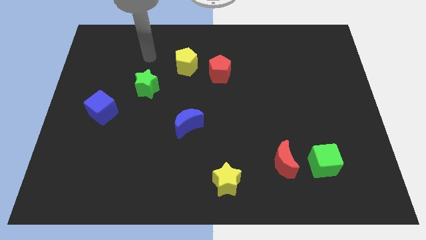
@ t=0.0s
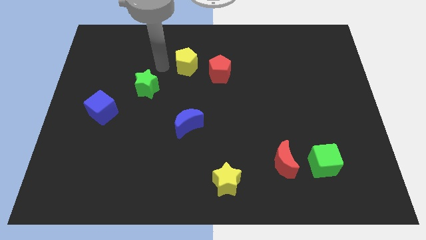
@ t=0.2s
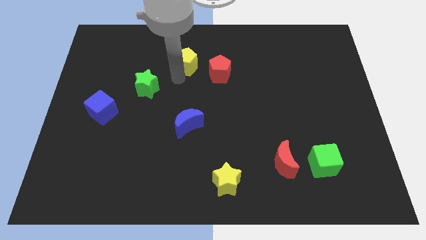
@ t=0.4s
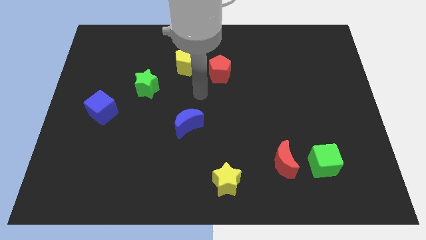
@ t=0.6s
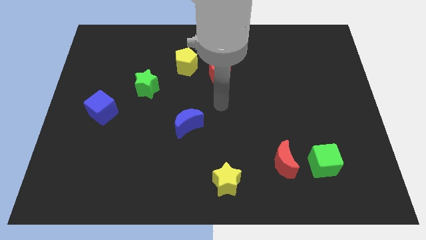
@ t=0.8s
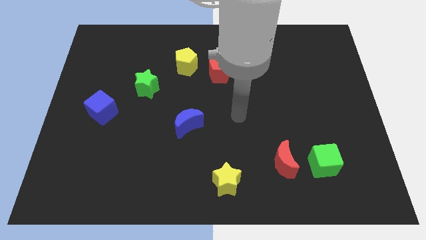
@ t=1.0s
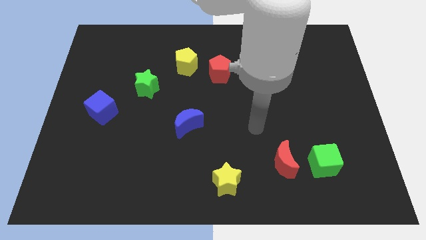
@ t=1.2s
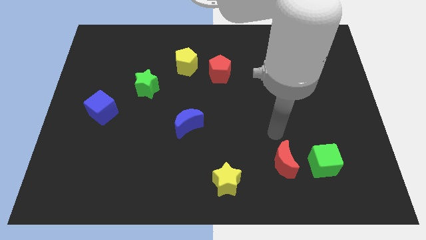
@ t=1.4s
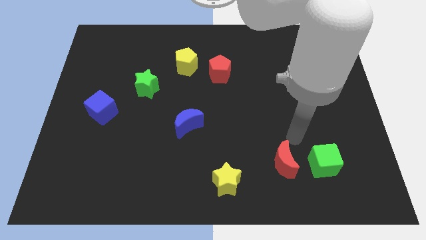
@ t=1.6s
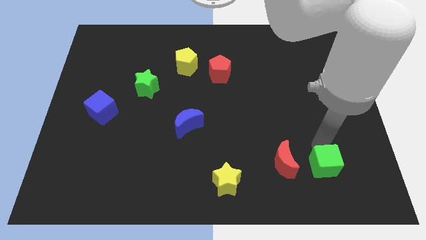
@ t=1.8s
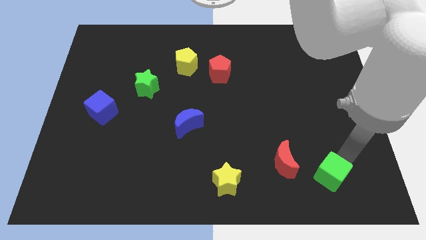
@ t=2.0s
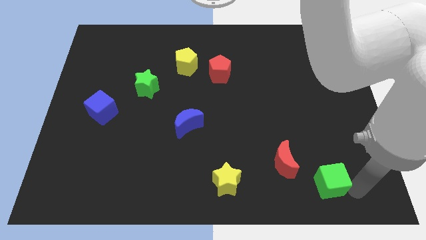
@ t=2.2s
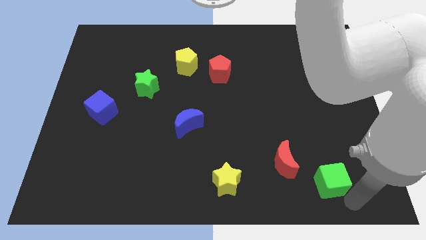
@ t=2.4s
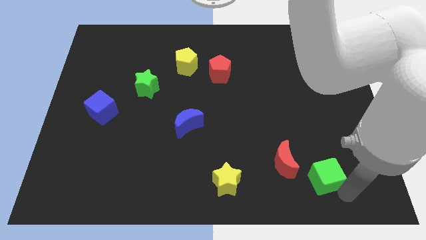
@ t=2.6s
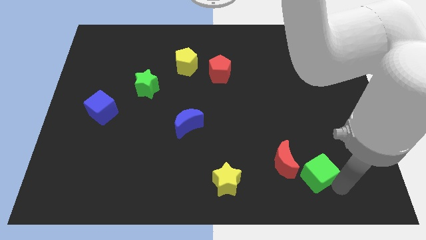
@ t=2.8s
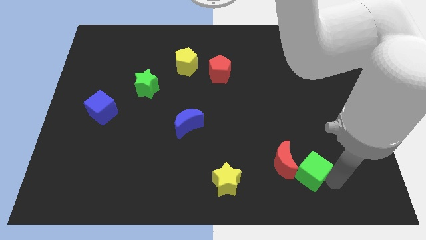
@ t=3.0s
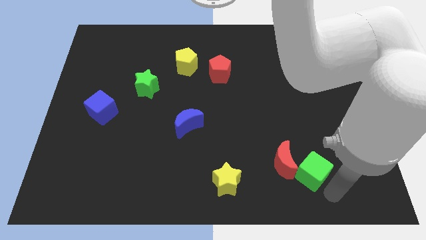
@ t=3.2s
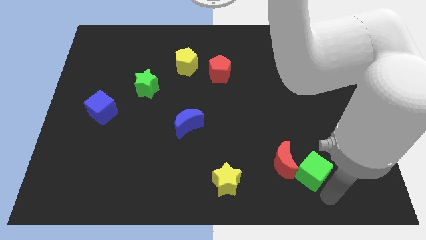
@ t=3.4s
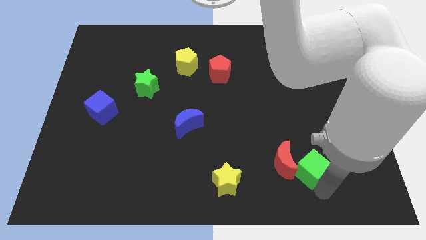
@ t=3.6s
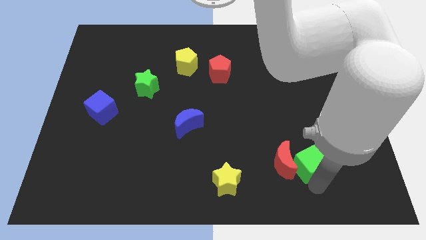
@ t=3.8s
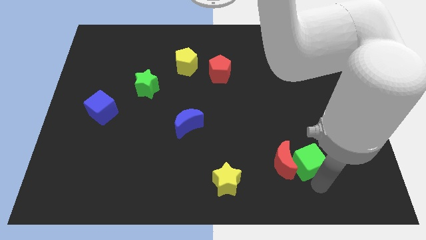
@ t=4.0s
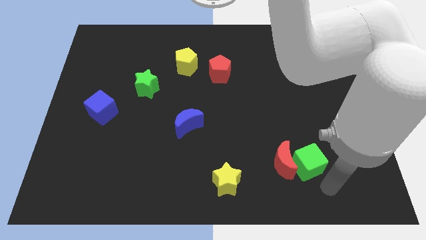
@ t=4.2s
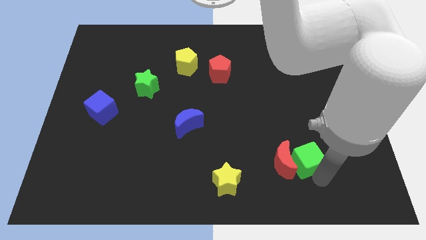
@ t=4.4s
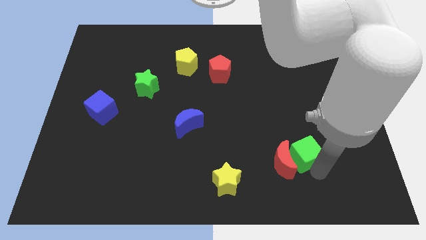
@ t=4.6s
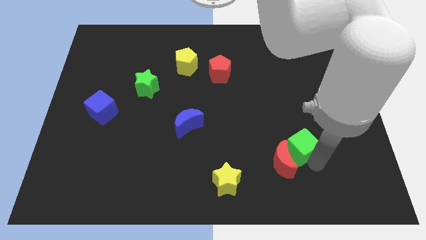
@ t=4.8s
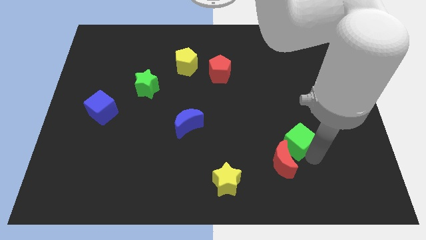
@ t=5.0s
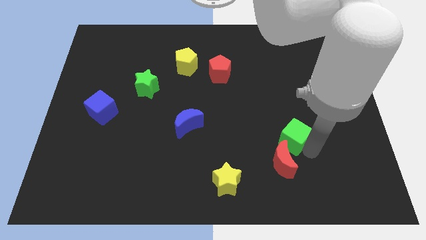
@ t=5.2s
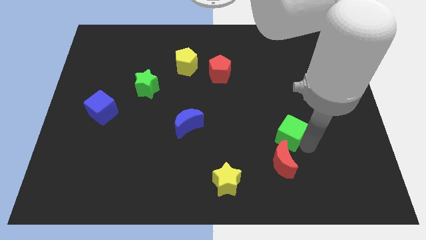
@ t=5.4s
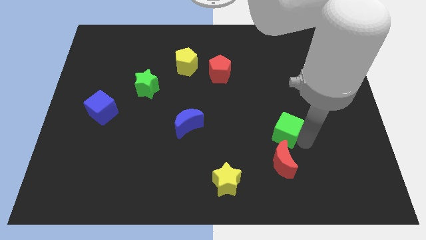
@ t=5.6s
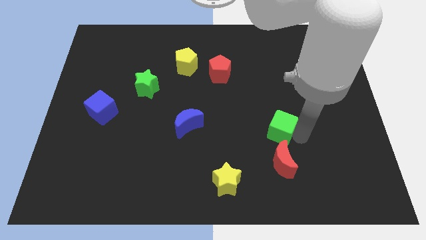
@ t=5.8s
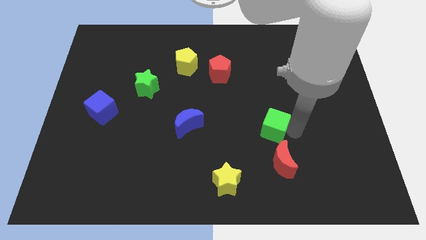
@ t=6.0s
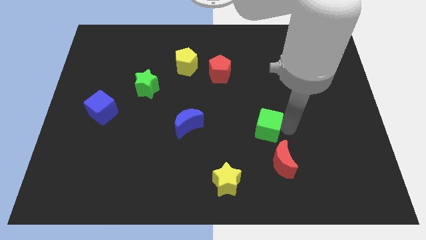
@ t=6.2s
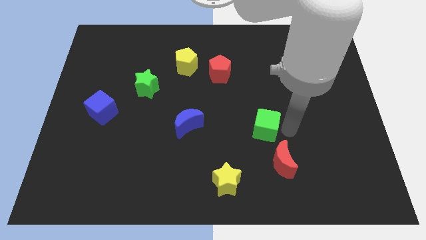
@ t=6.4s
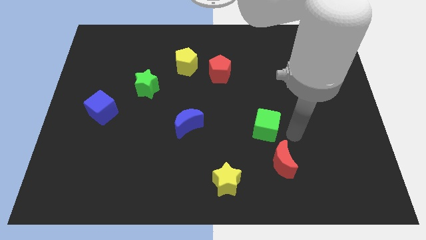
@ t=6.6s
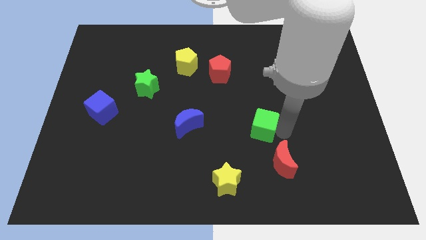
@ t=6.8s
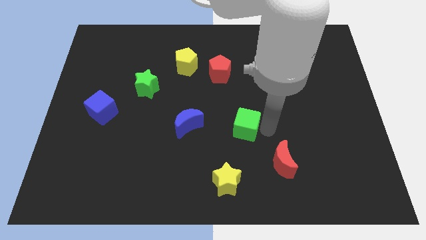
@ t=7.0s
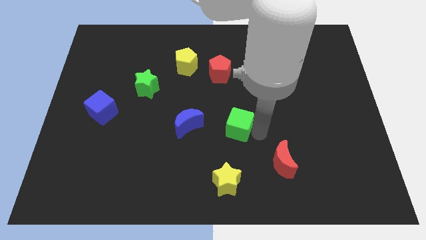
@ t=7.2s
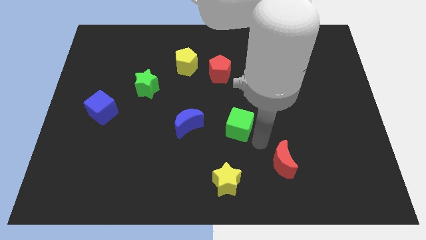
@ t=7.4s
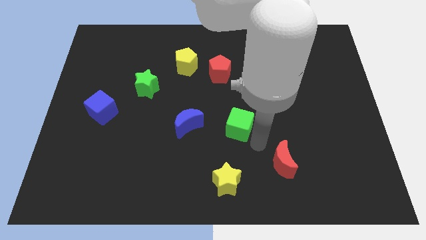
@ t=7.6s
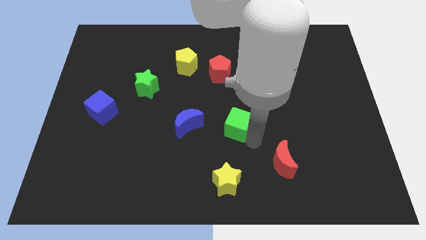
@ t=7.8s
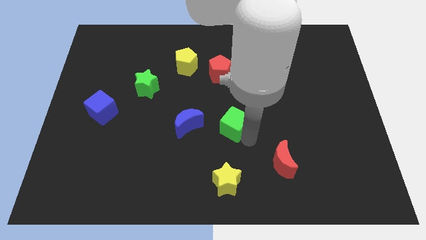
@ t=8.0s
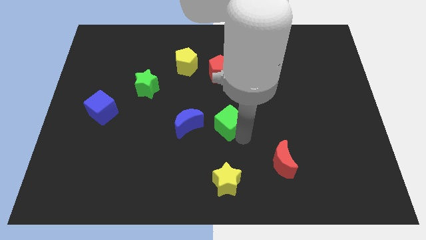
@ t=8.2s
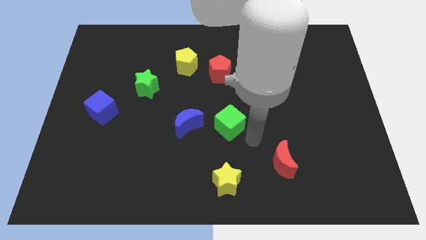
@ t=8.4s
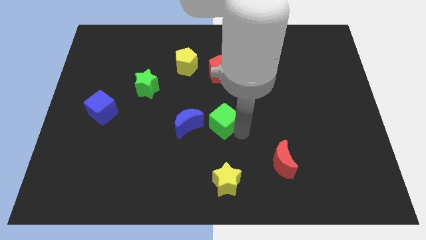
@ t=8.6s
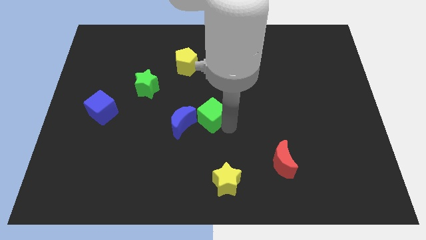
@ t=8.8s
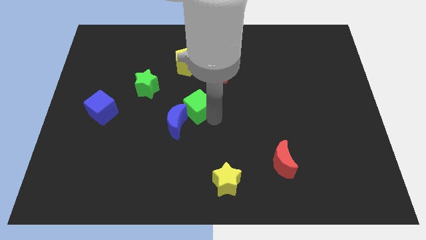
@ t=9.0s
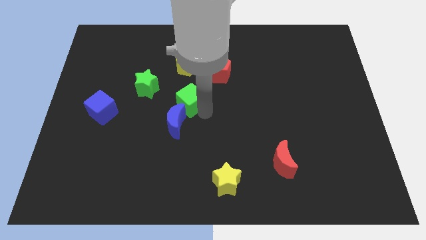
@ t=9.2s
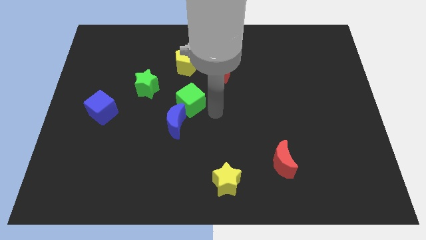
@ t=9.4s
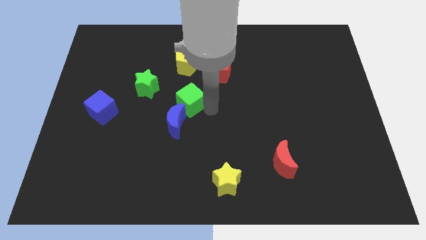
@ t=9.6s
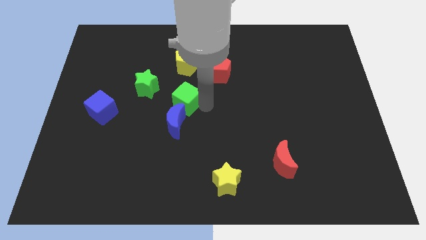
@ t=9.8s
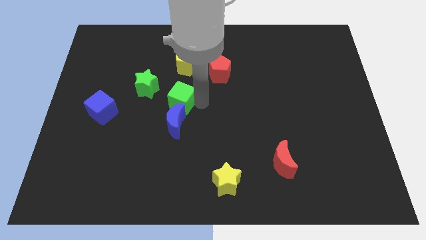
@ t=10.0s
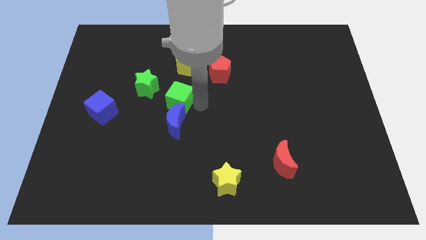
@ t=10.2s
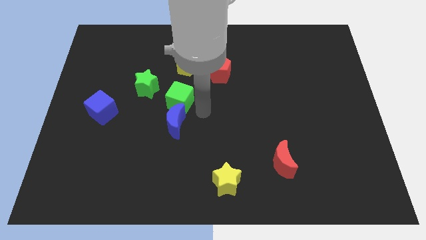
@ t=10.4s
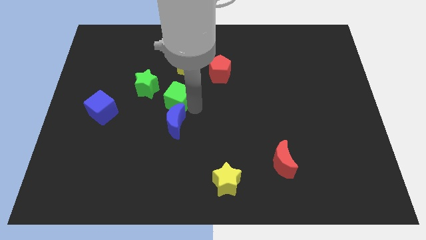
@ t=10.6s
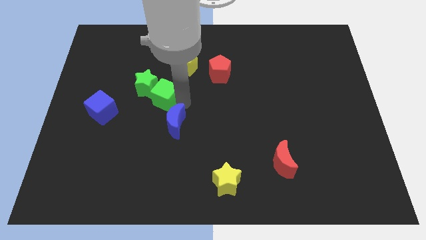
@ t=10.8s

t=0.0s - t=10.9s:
slide the green cube next to the green star

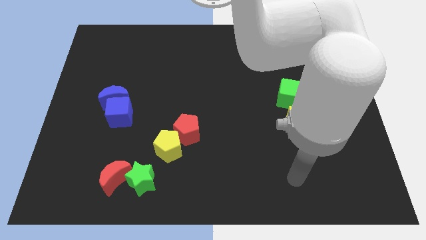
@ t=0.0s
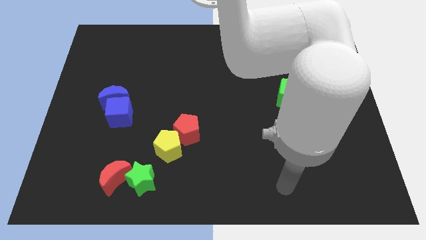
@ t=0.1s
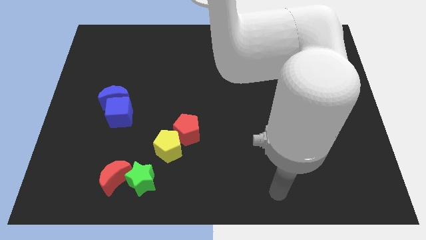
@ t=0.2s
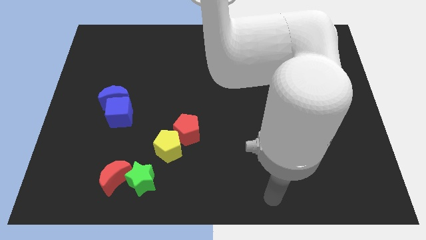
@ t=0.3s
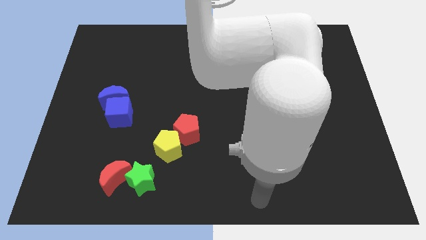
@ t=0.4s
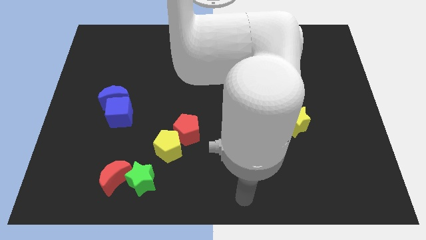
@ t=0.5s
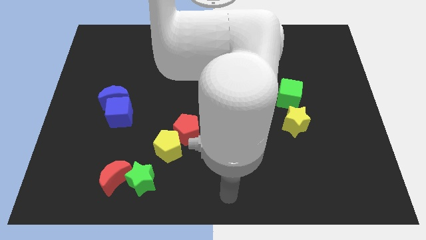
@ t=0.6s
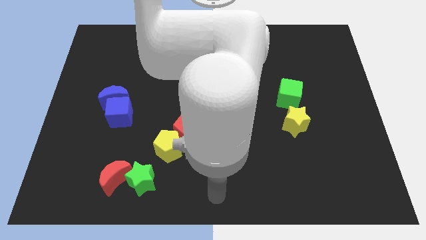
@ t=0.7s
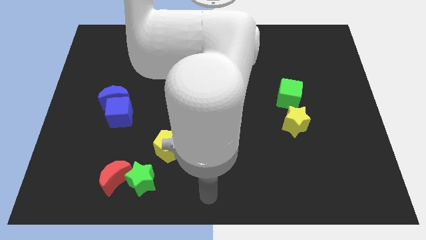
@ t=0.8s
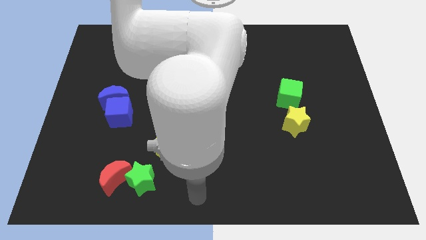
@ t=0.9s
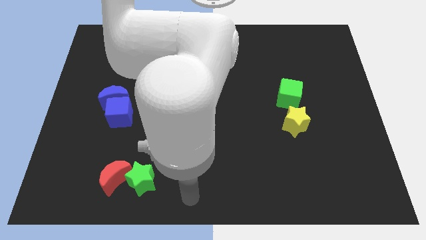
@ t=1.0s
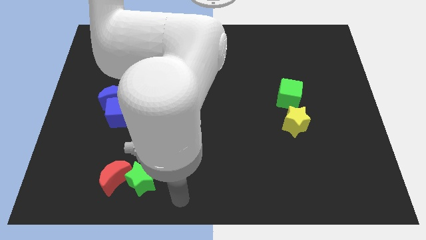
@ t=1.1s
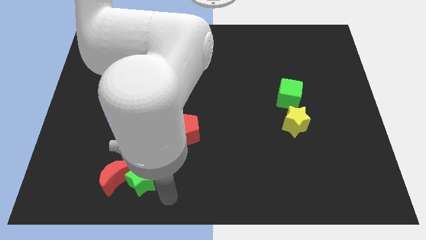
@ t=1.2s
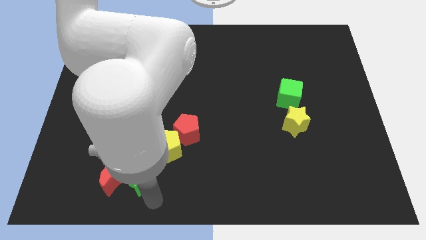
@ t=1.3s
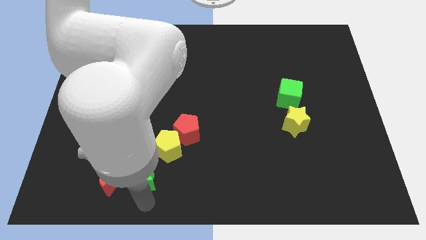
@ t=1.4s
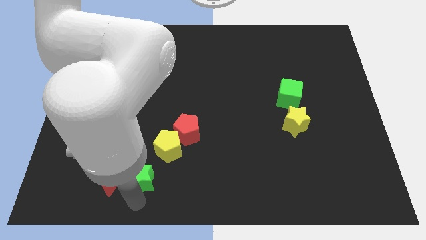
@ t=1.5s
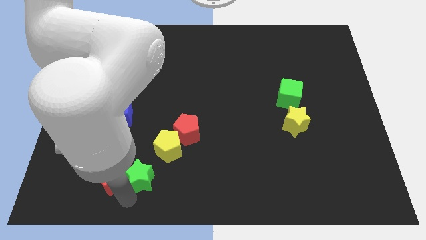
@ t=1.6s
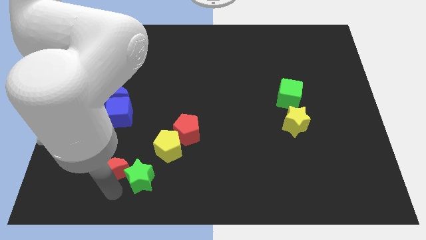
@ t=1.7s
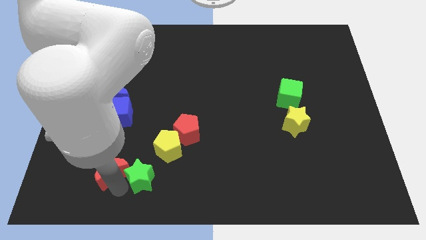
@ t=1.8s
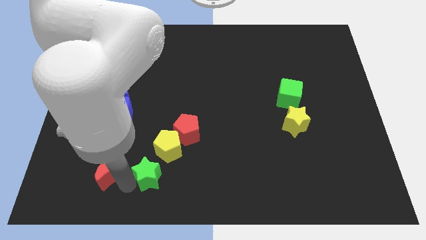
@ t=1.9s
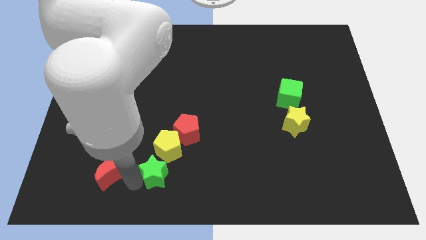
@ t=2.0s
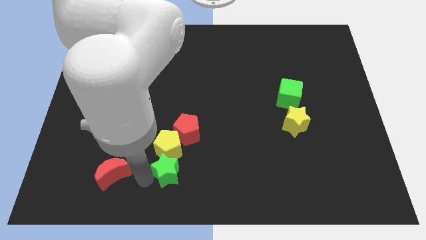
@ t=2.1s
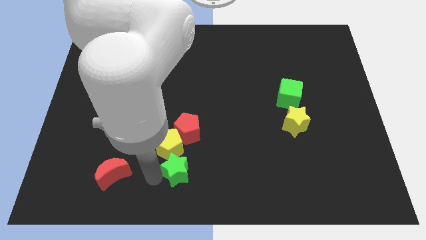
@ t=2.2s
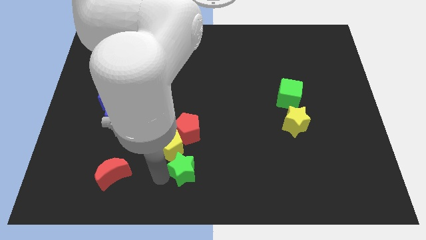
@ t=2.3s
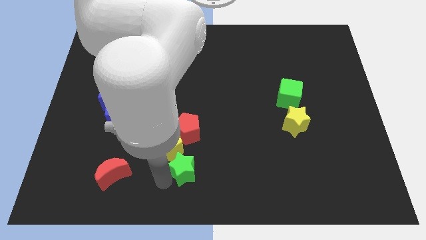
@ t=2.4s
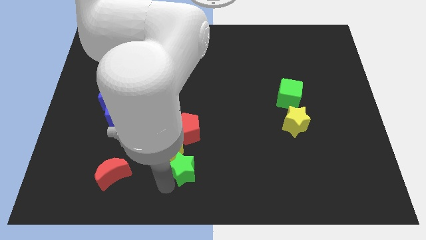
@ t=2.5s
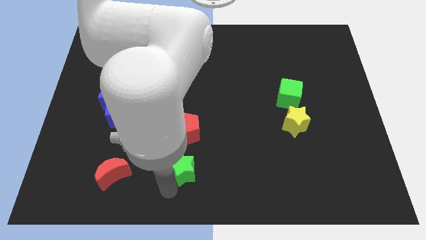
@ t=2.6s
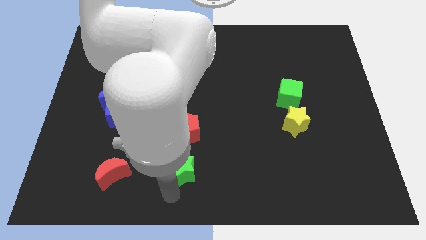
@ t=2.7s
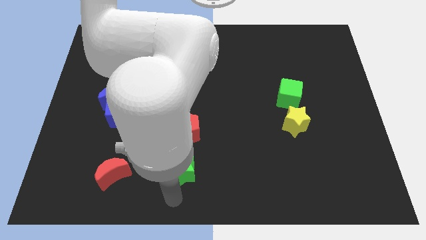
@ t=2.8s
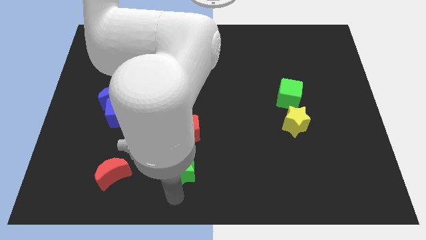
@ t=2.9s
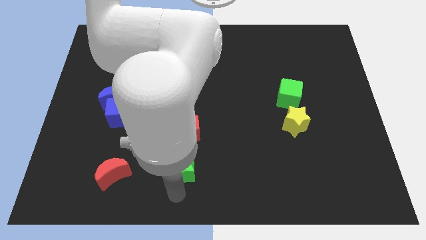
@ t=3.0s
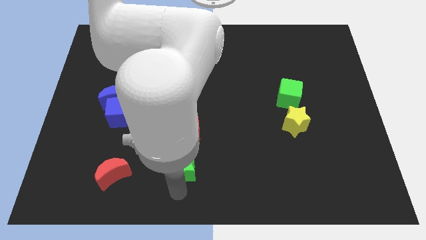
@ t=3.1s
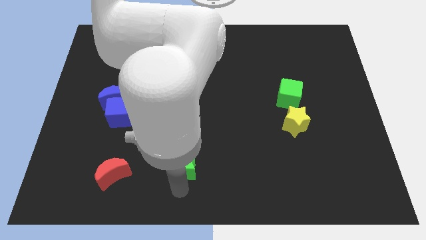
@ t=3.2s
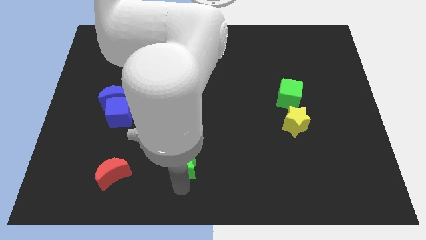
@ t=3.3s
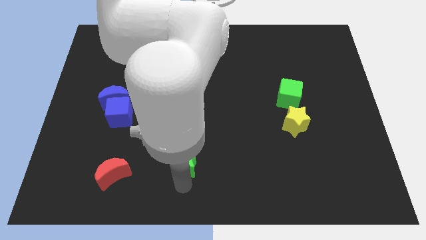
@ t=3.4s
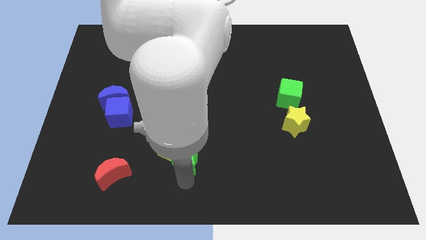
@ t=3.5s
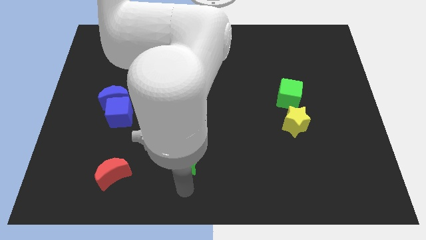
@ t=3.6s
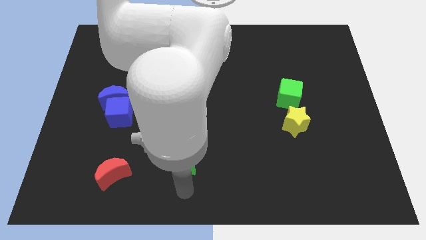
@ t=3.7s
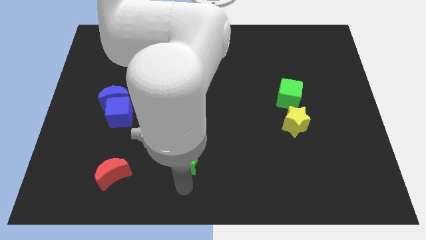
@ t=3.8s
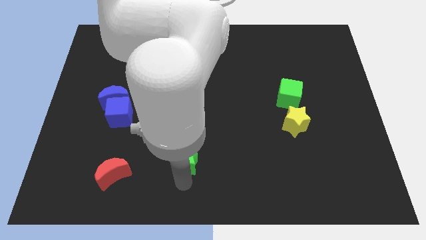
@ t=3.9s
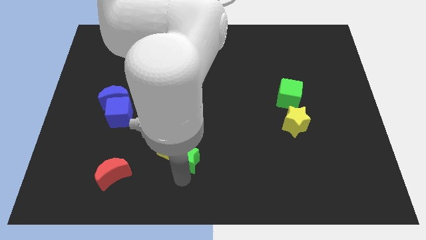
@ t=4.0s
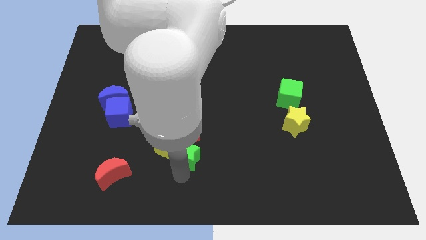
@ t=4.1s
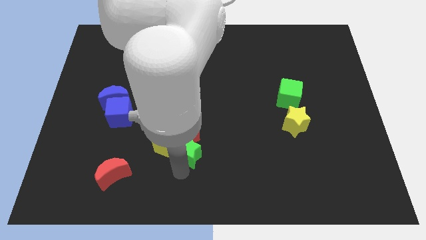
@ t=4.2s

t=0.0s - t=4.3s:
put the green star to the red pentagon
